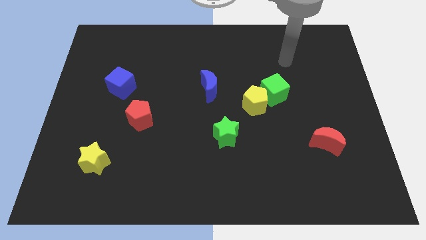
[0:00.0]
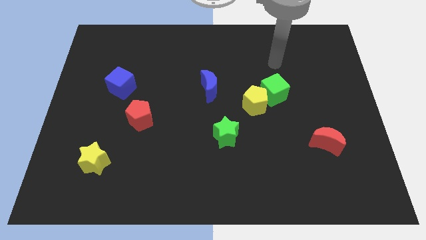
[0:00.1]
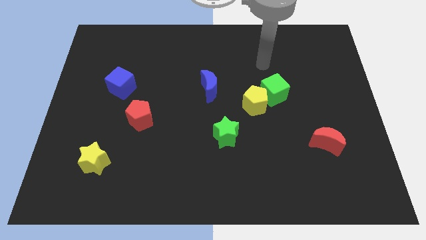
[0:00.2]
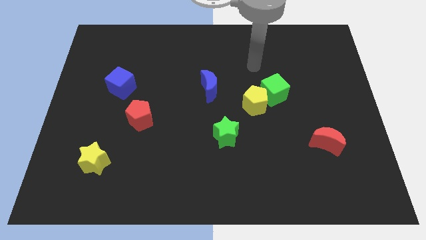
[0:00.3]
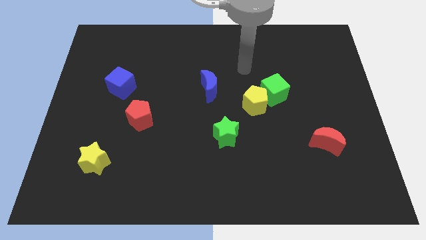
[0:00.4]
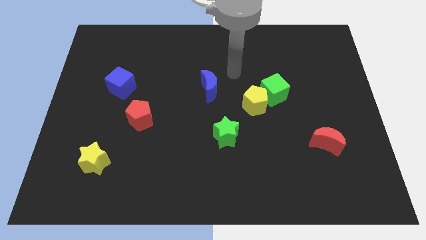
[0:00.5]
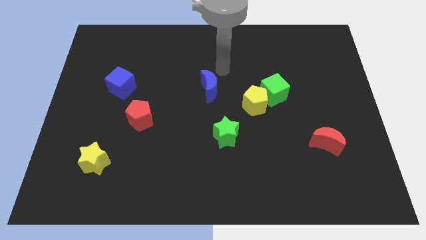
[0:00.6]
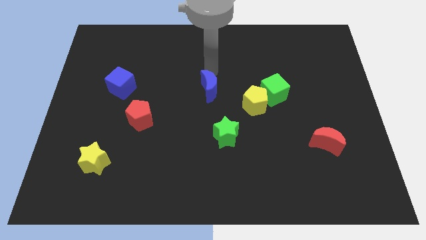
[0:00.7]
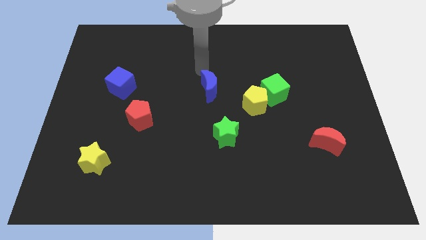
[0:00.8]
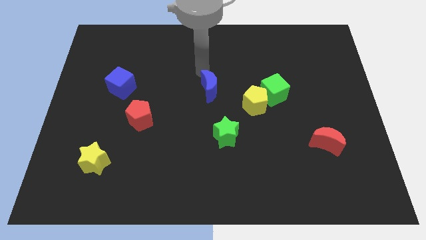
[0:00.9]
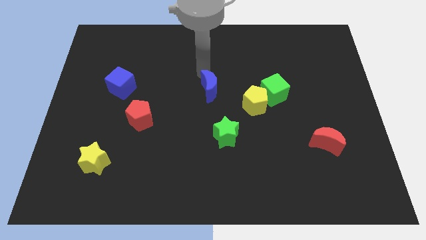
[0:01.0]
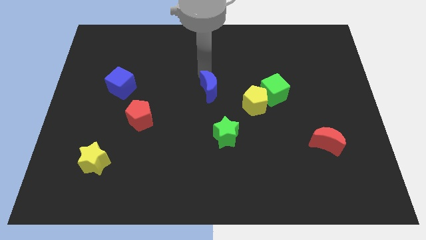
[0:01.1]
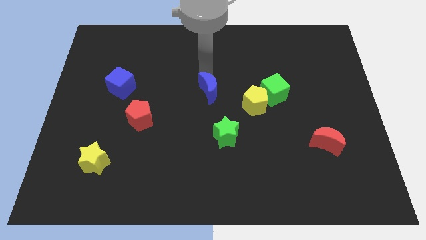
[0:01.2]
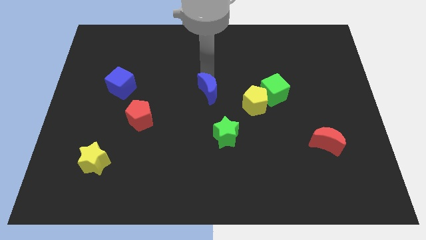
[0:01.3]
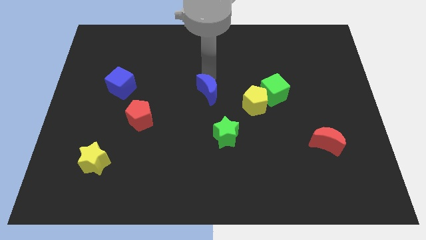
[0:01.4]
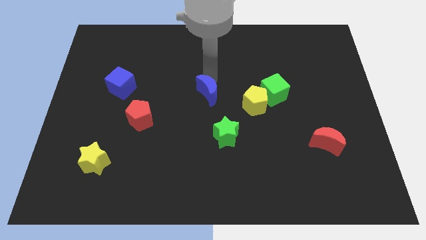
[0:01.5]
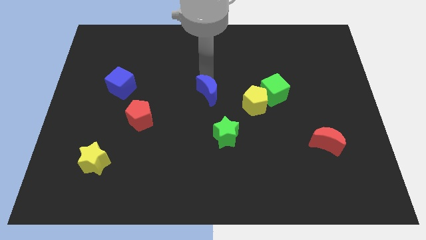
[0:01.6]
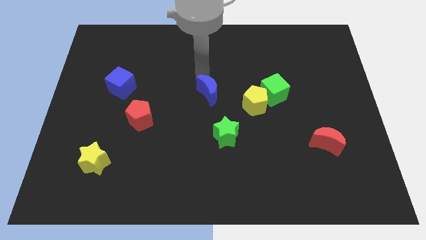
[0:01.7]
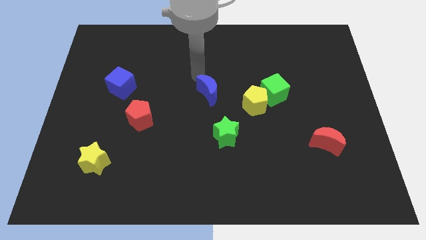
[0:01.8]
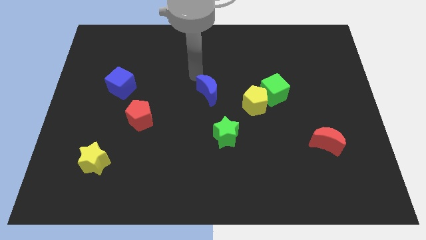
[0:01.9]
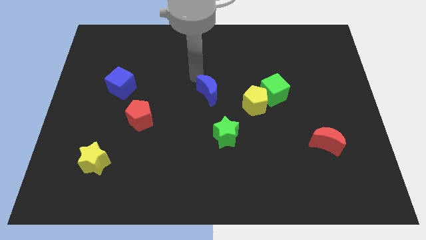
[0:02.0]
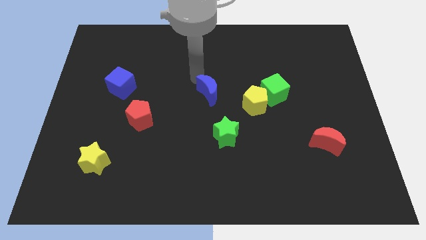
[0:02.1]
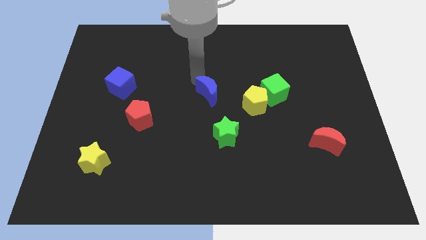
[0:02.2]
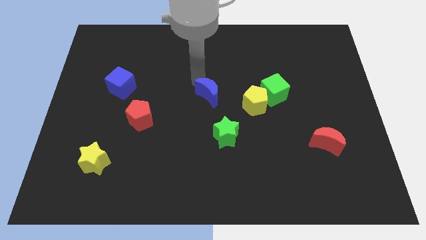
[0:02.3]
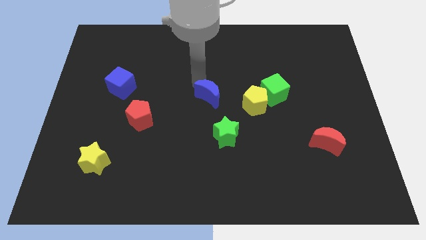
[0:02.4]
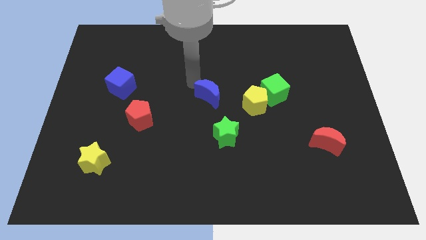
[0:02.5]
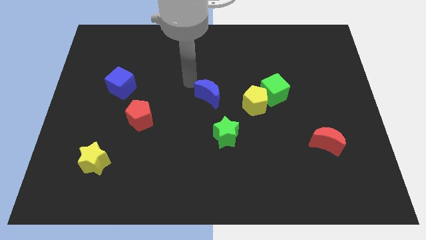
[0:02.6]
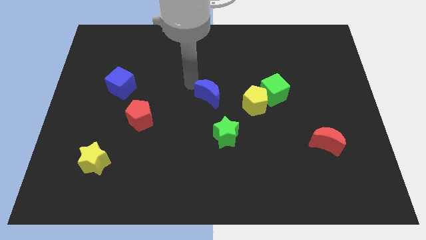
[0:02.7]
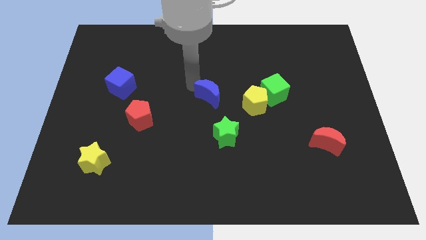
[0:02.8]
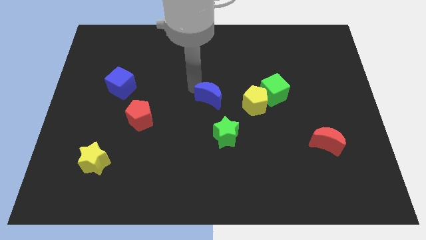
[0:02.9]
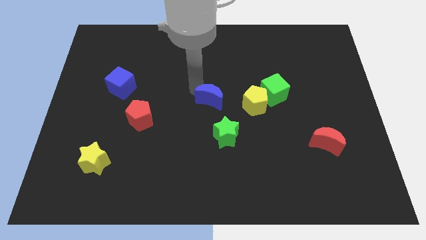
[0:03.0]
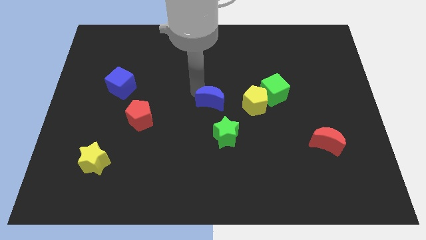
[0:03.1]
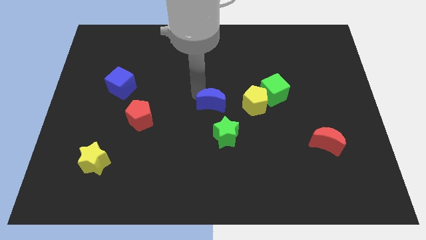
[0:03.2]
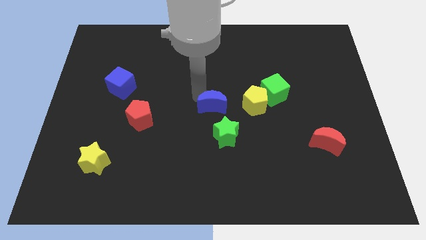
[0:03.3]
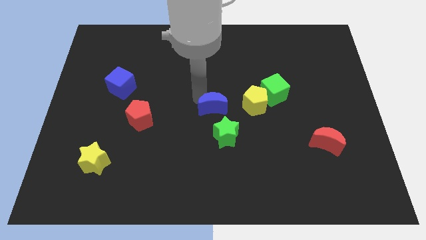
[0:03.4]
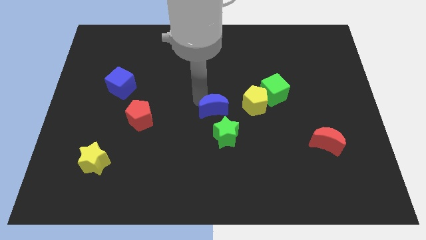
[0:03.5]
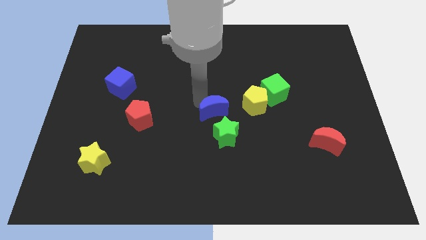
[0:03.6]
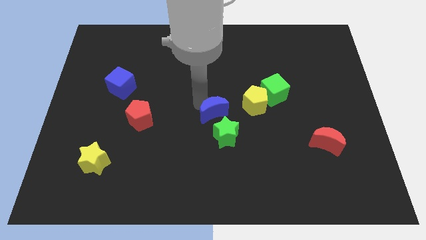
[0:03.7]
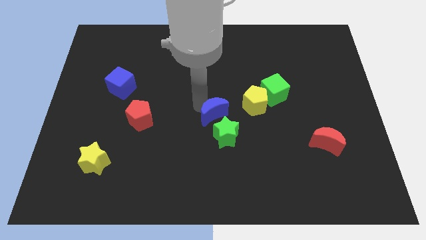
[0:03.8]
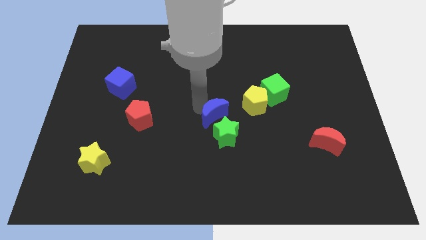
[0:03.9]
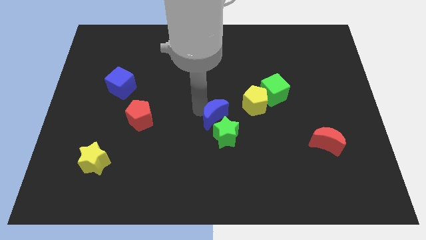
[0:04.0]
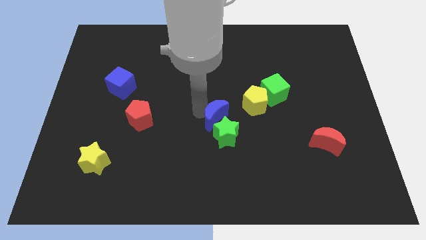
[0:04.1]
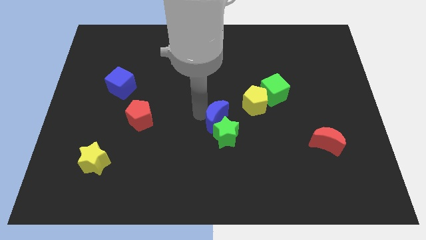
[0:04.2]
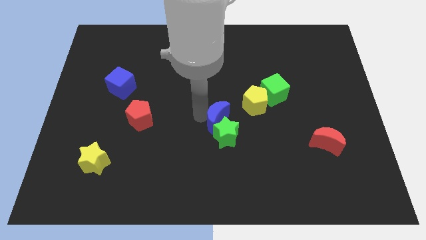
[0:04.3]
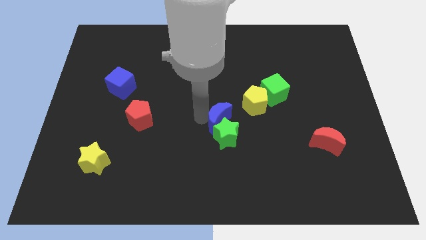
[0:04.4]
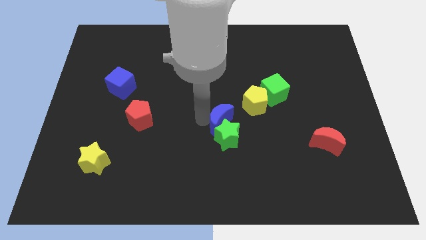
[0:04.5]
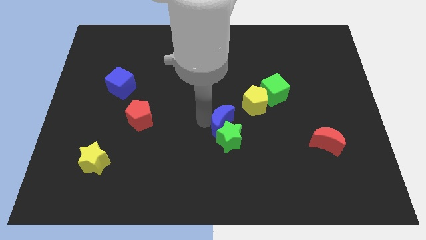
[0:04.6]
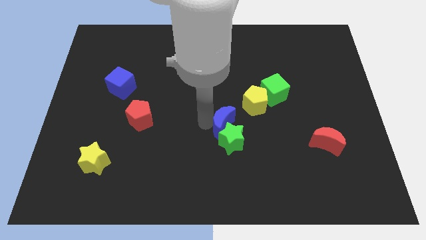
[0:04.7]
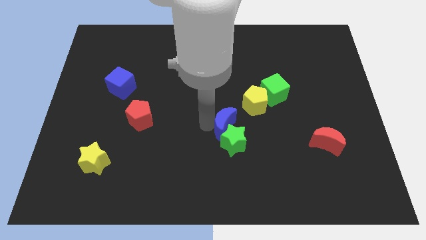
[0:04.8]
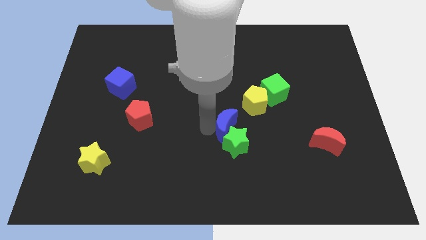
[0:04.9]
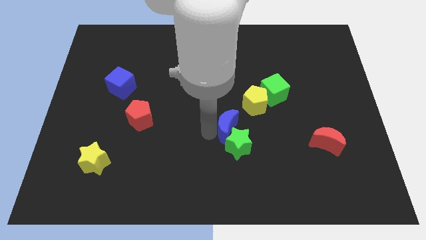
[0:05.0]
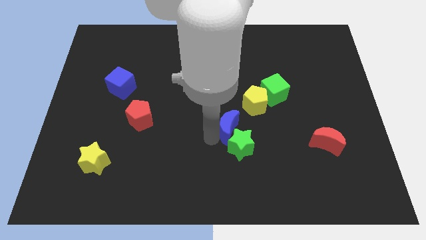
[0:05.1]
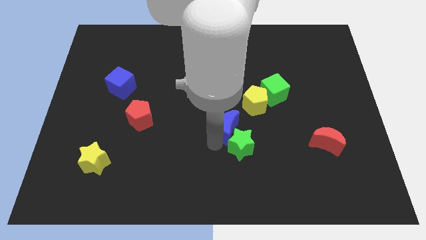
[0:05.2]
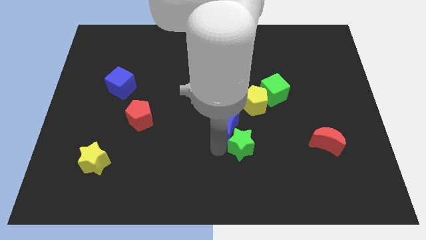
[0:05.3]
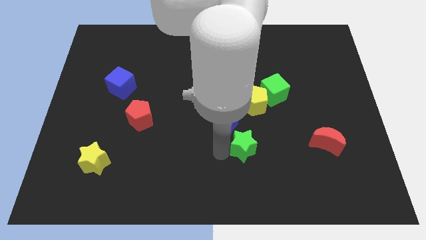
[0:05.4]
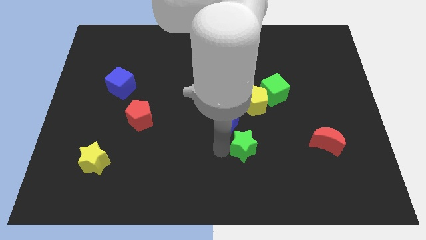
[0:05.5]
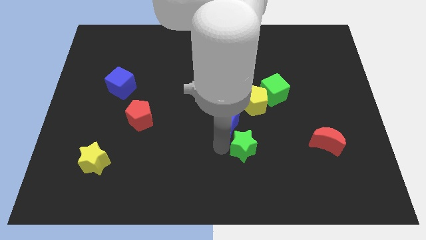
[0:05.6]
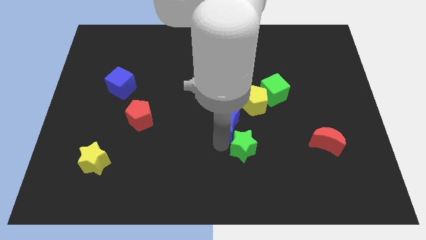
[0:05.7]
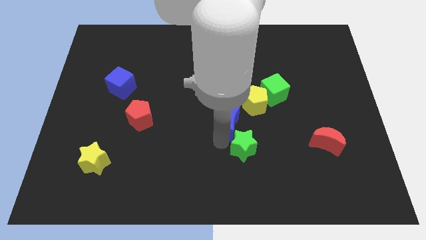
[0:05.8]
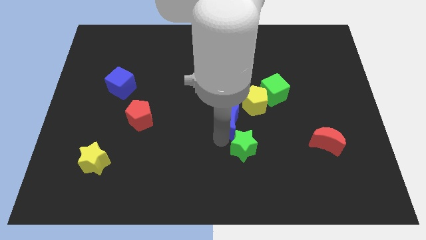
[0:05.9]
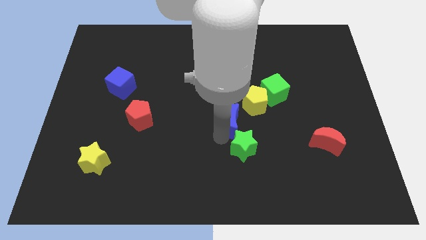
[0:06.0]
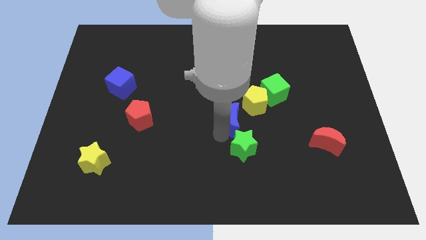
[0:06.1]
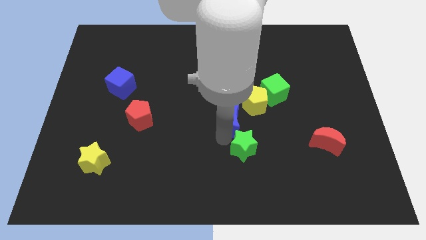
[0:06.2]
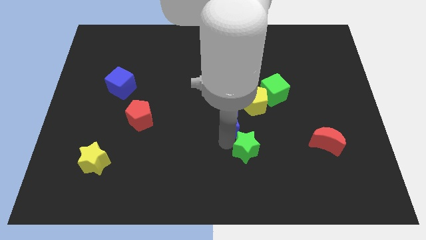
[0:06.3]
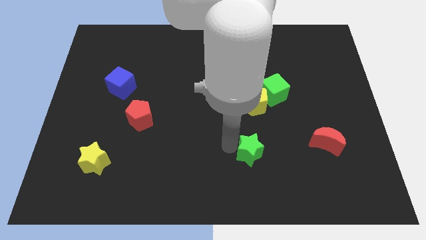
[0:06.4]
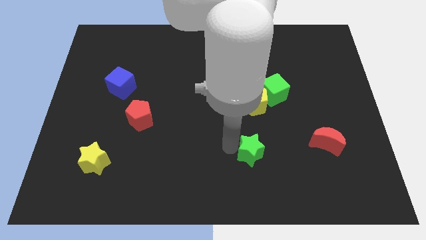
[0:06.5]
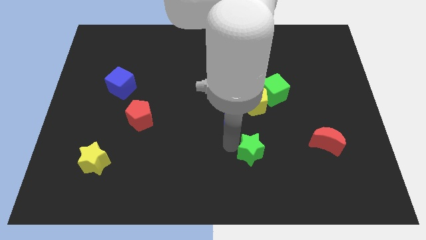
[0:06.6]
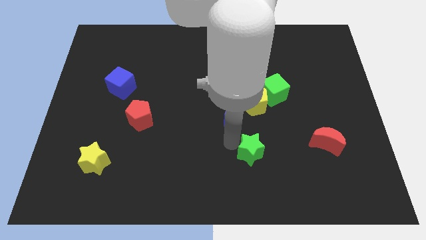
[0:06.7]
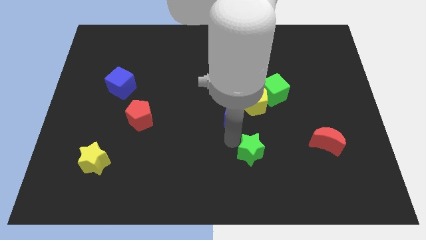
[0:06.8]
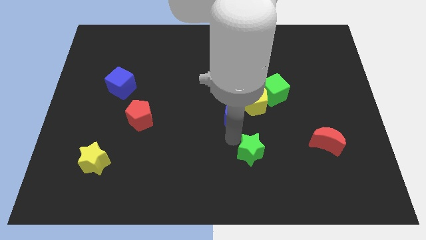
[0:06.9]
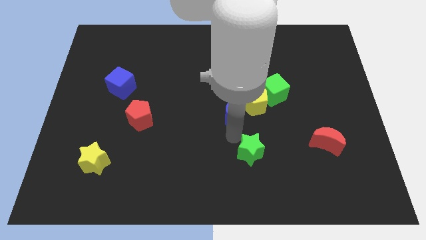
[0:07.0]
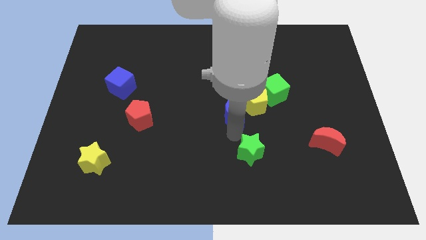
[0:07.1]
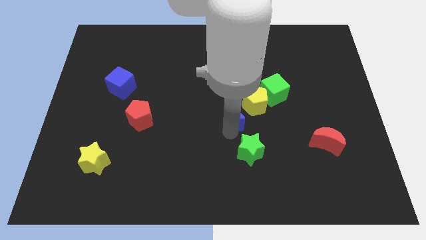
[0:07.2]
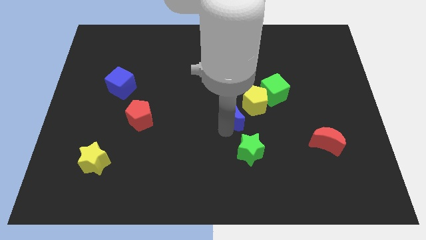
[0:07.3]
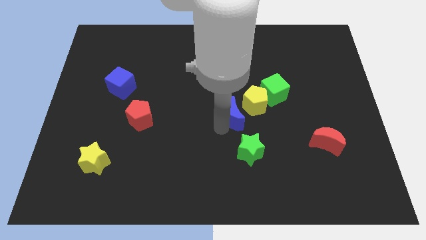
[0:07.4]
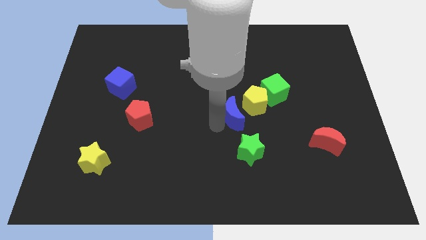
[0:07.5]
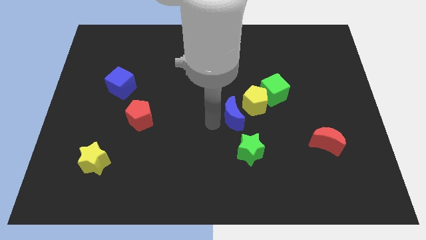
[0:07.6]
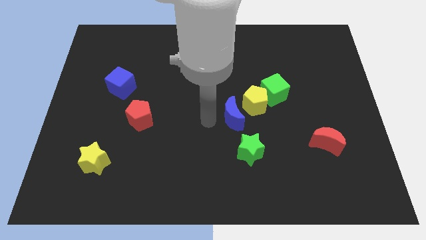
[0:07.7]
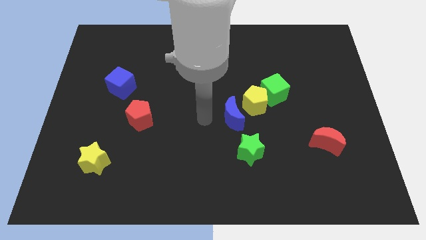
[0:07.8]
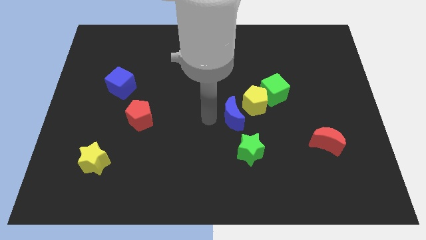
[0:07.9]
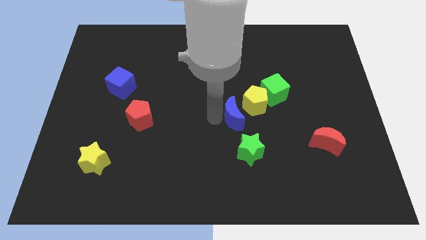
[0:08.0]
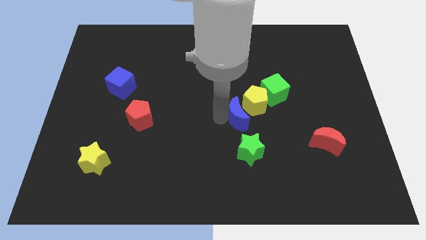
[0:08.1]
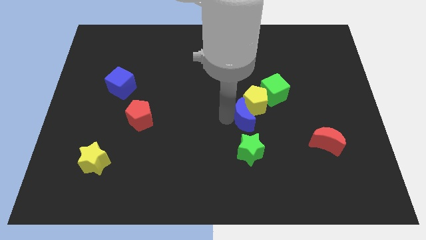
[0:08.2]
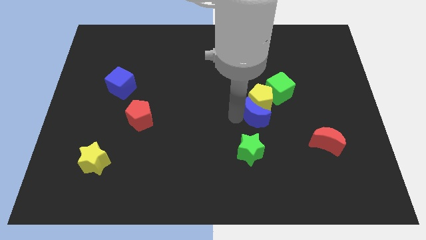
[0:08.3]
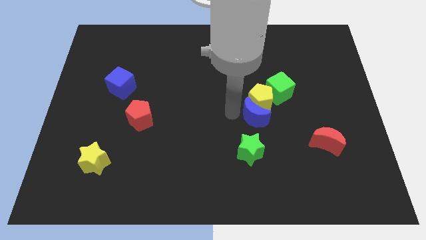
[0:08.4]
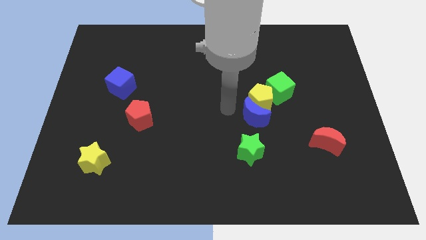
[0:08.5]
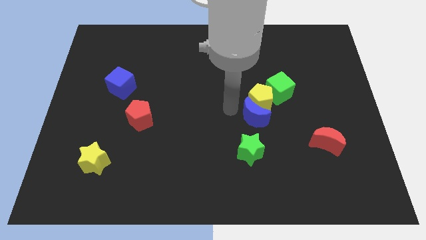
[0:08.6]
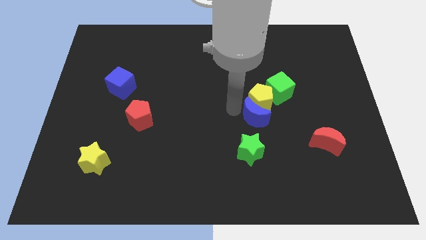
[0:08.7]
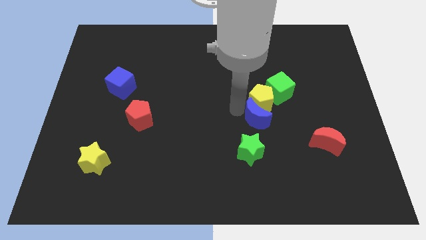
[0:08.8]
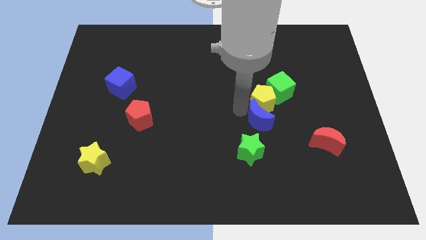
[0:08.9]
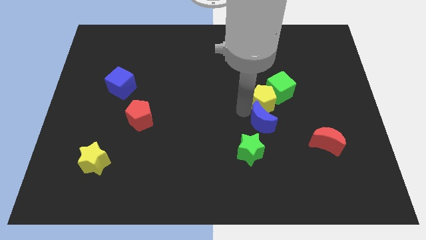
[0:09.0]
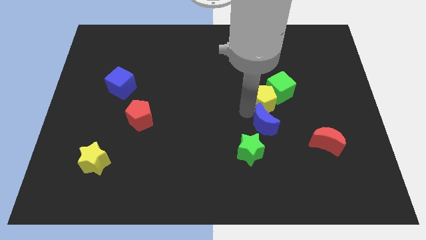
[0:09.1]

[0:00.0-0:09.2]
put the blue moon to the bottom of the green cube
